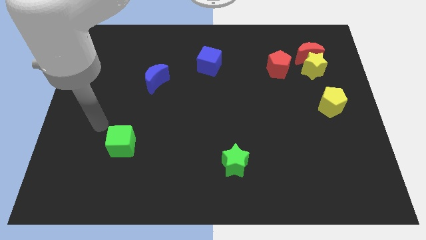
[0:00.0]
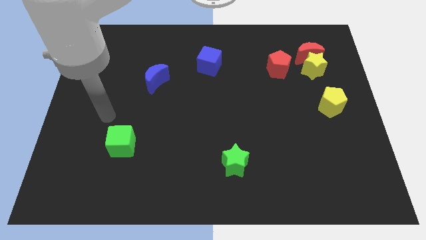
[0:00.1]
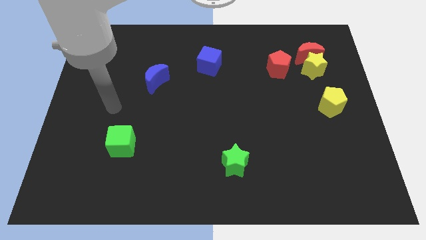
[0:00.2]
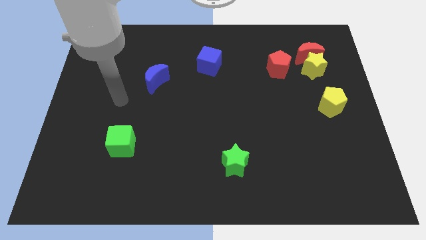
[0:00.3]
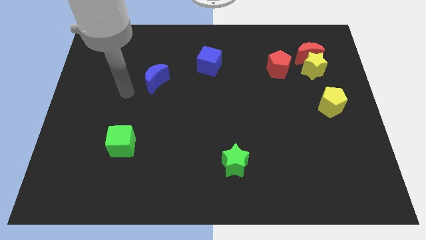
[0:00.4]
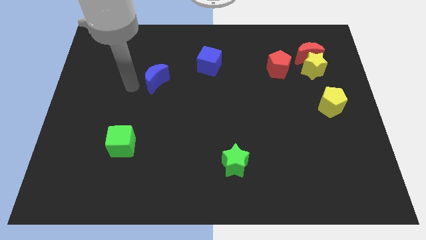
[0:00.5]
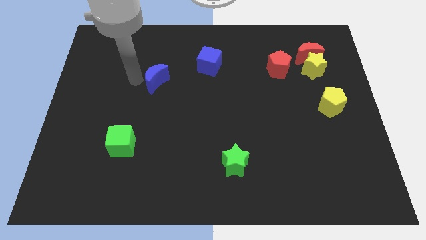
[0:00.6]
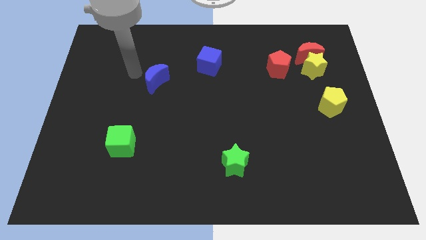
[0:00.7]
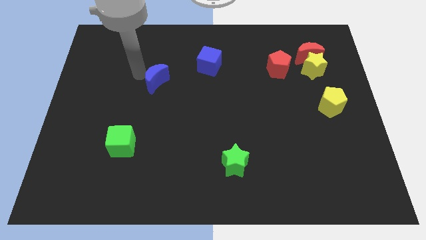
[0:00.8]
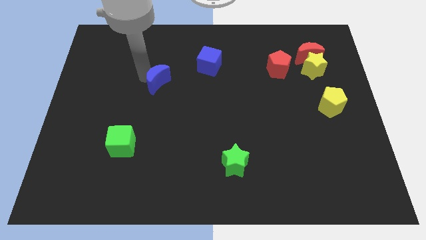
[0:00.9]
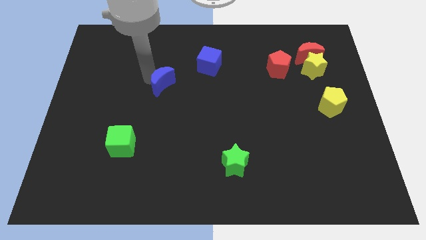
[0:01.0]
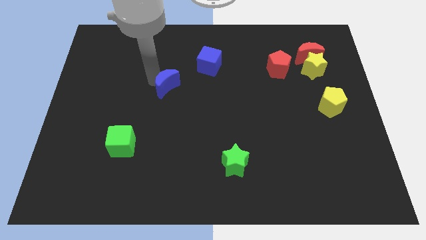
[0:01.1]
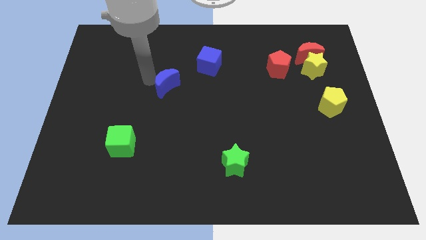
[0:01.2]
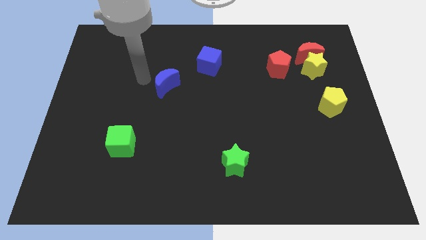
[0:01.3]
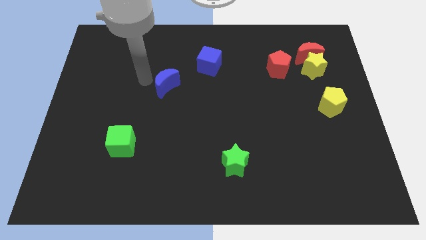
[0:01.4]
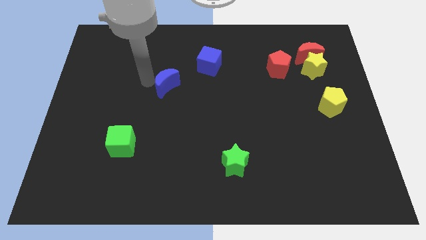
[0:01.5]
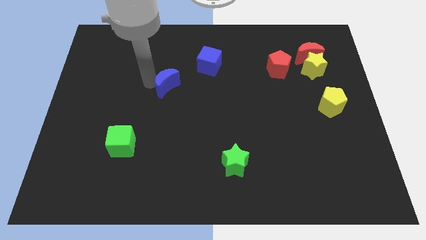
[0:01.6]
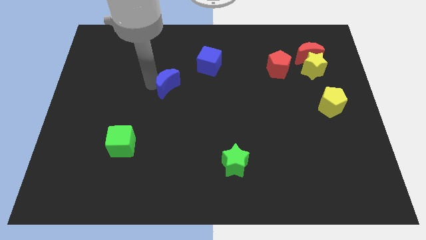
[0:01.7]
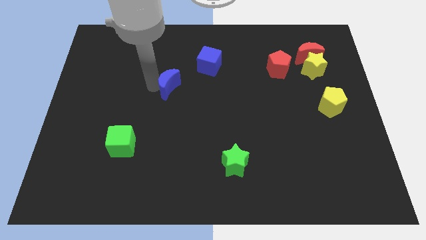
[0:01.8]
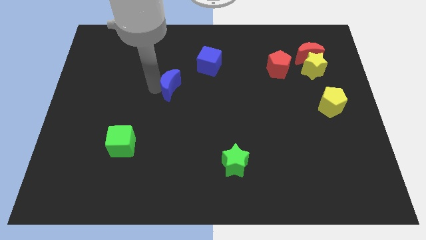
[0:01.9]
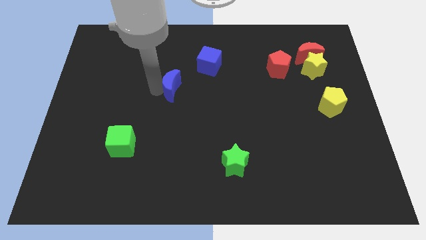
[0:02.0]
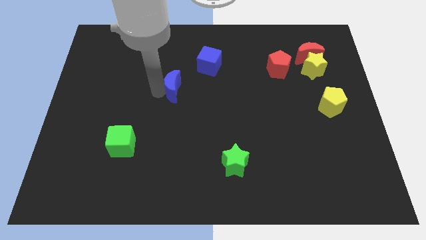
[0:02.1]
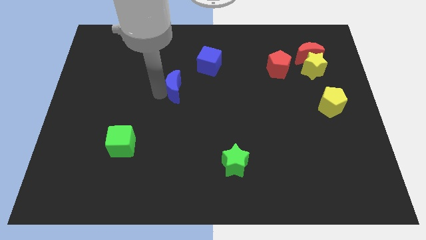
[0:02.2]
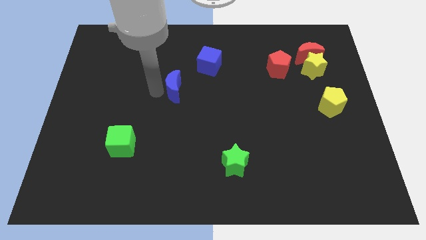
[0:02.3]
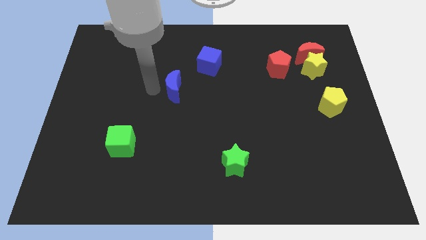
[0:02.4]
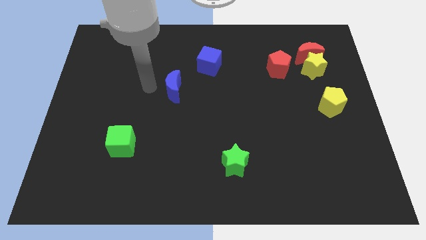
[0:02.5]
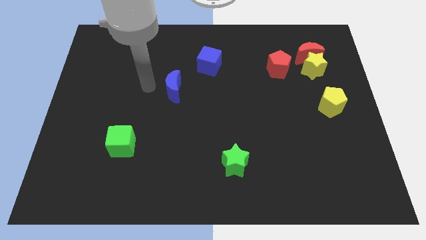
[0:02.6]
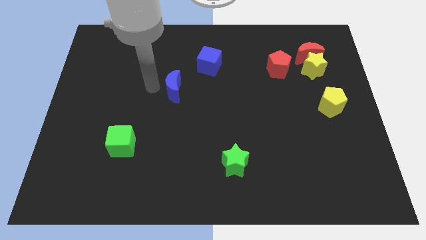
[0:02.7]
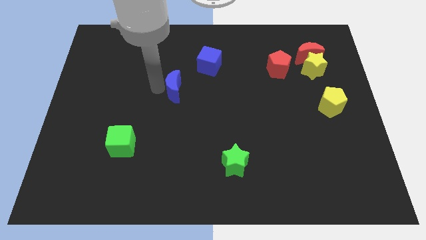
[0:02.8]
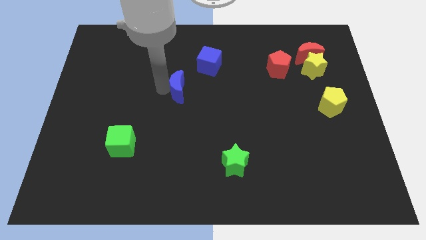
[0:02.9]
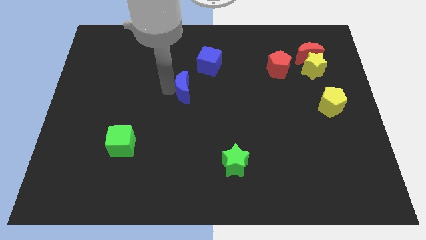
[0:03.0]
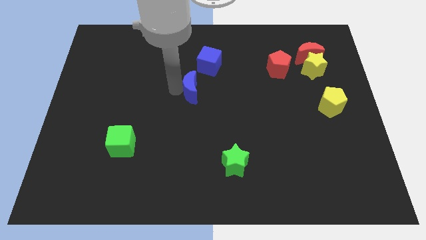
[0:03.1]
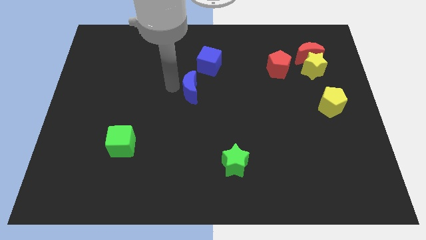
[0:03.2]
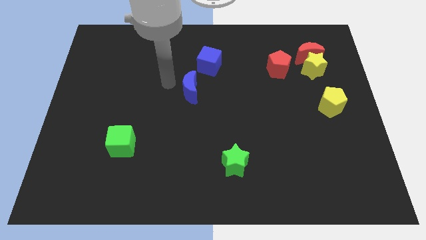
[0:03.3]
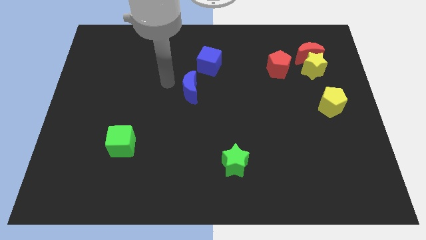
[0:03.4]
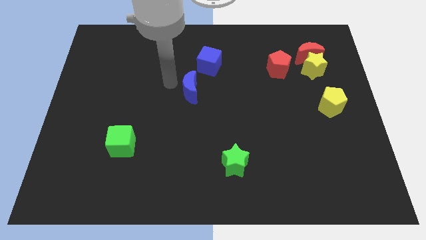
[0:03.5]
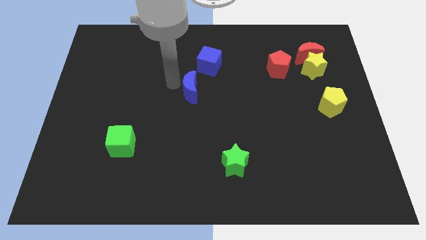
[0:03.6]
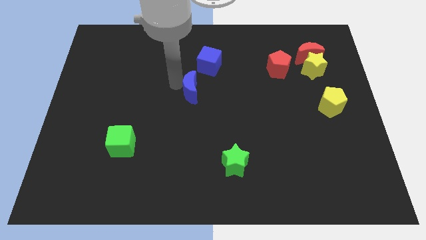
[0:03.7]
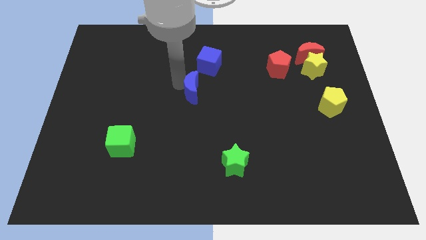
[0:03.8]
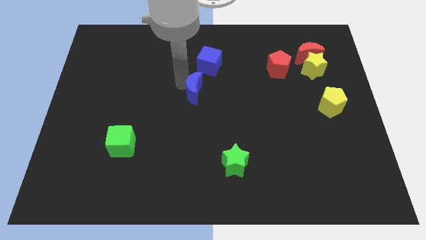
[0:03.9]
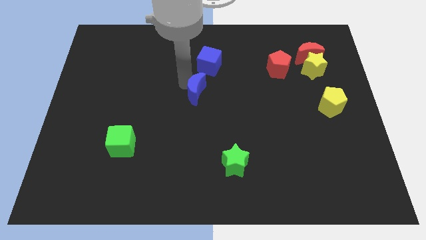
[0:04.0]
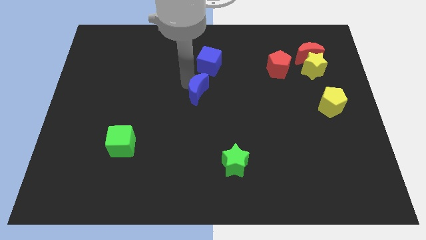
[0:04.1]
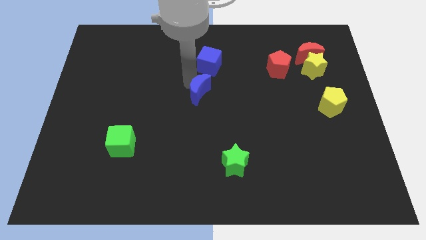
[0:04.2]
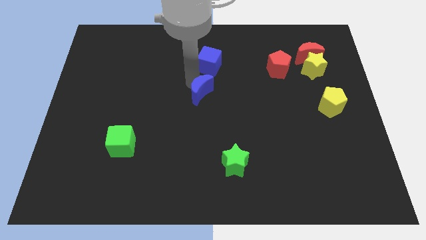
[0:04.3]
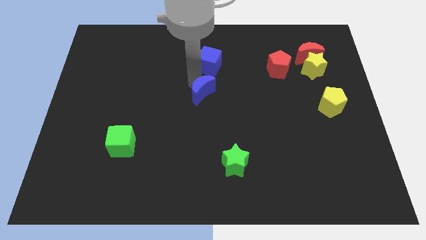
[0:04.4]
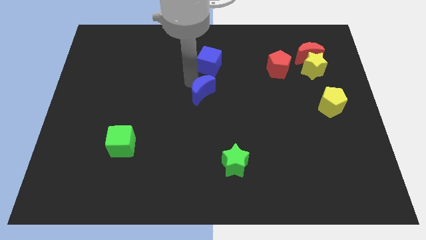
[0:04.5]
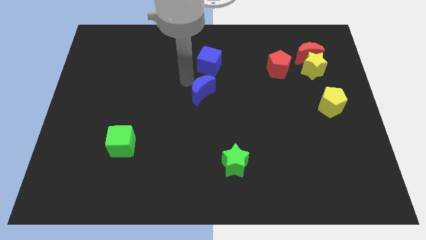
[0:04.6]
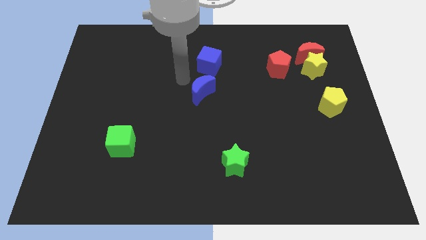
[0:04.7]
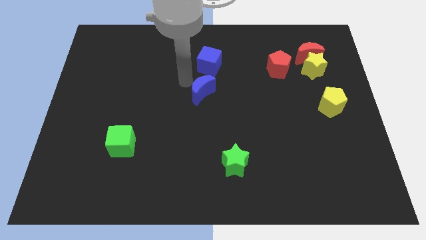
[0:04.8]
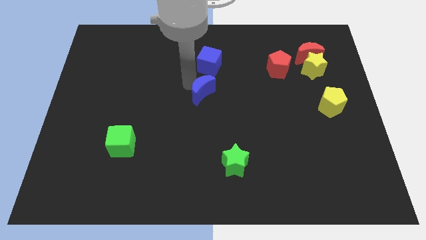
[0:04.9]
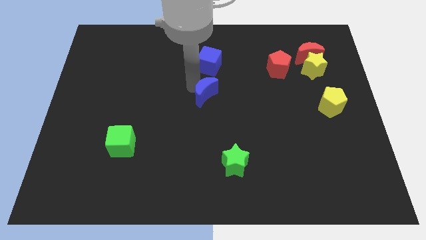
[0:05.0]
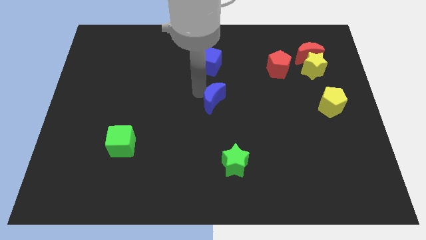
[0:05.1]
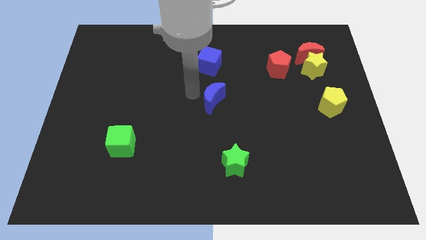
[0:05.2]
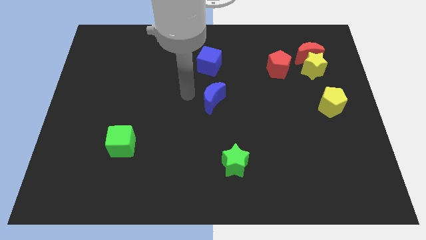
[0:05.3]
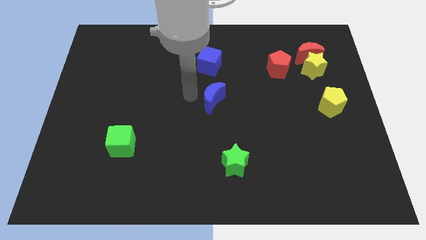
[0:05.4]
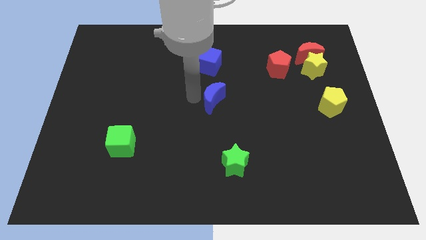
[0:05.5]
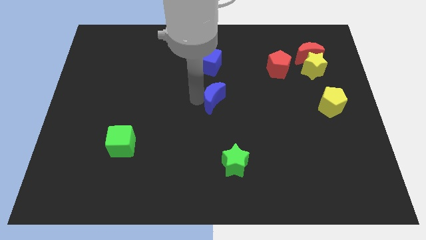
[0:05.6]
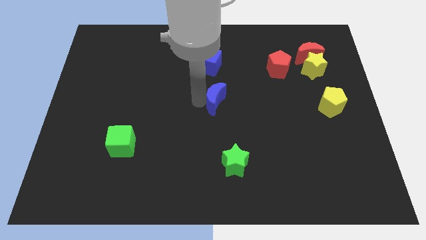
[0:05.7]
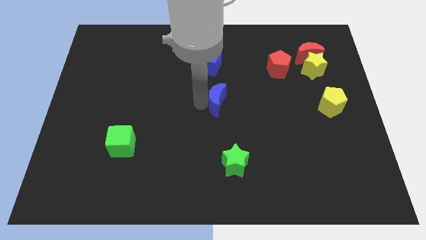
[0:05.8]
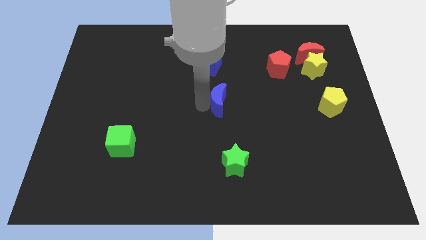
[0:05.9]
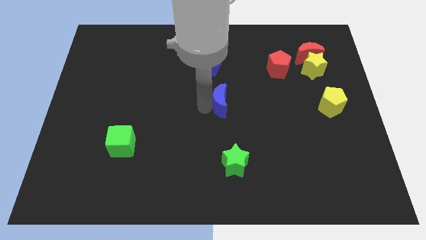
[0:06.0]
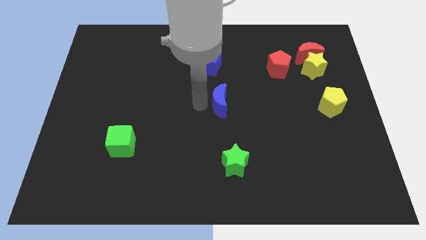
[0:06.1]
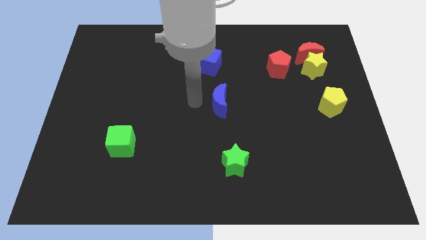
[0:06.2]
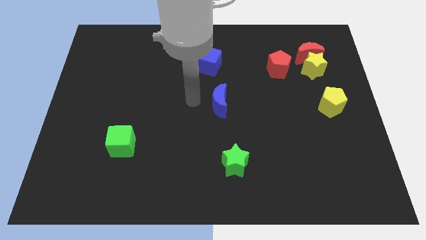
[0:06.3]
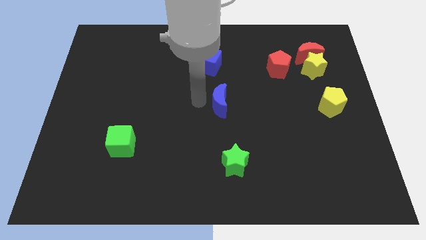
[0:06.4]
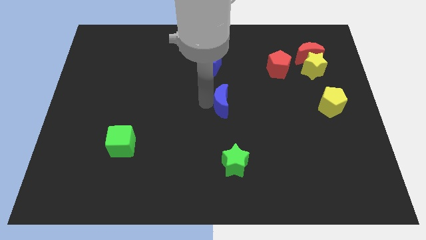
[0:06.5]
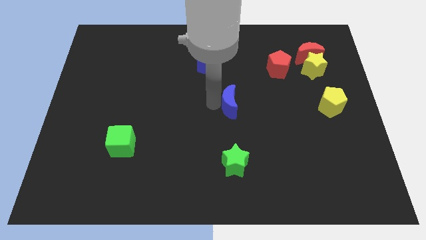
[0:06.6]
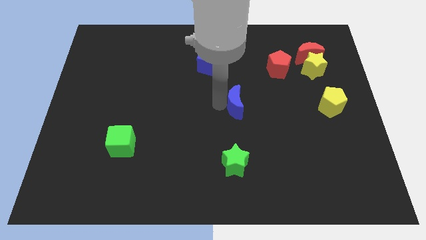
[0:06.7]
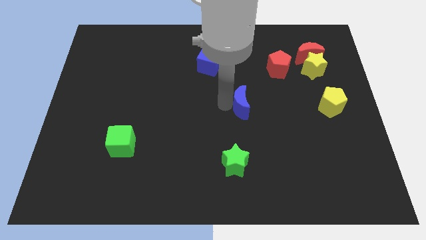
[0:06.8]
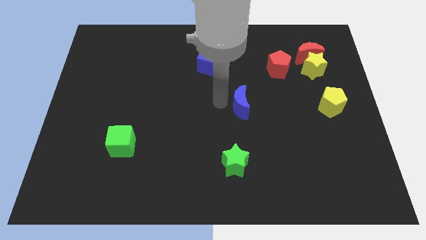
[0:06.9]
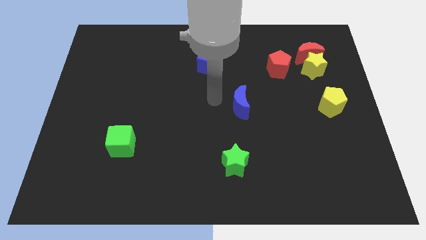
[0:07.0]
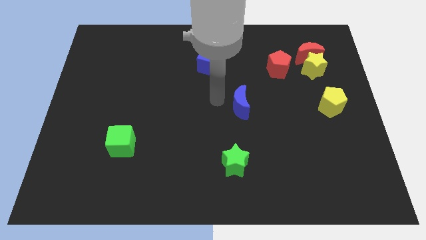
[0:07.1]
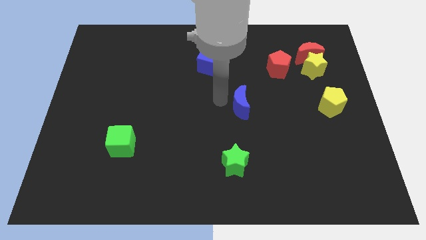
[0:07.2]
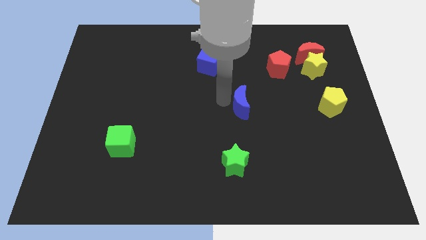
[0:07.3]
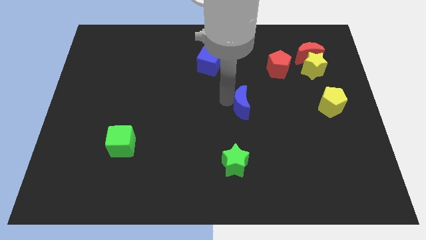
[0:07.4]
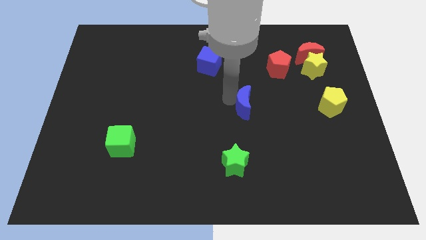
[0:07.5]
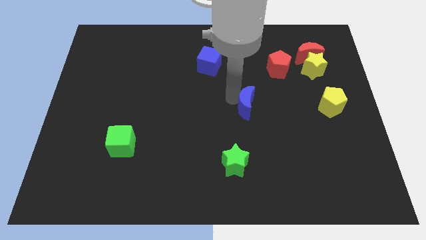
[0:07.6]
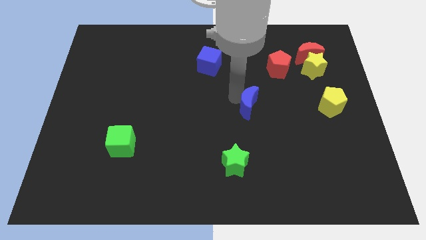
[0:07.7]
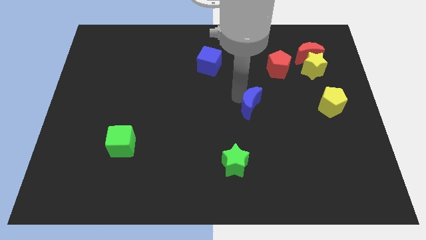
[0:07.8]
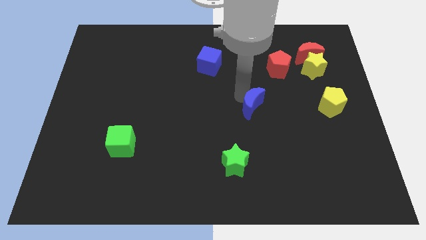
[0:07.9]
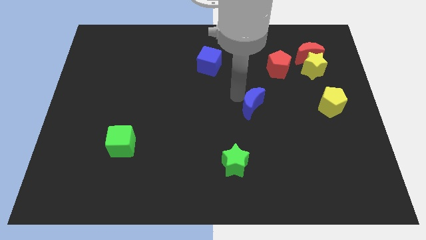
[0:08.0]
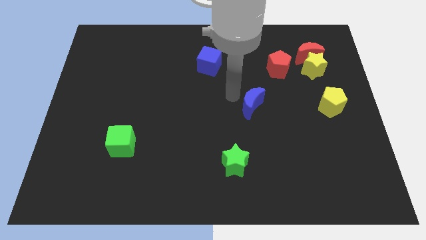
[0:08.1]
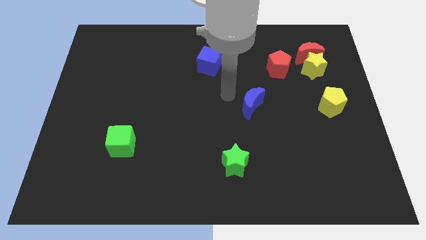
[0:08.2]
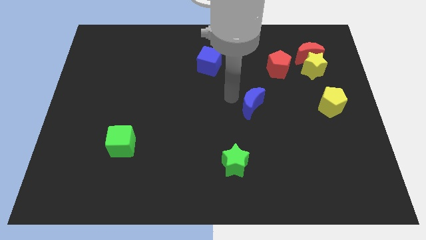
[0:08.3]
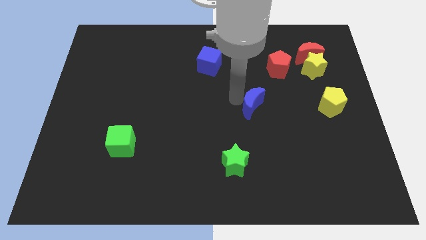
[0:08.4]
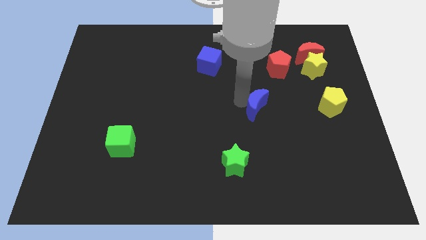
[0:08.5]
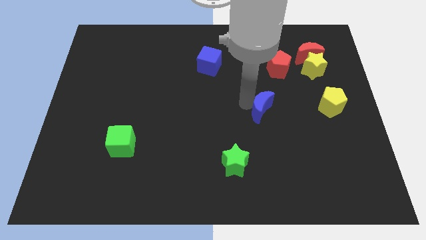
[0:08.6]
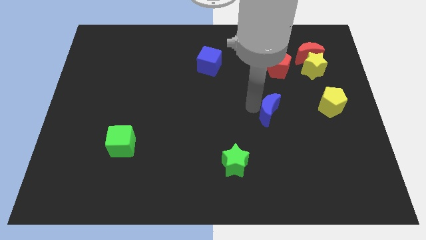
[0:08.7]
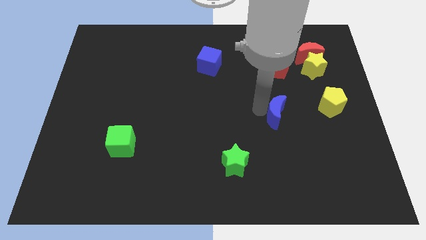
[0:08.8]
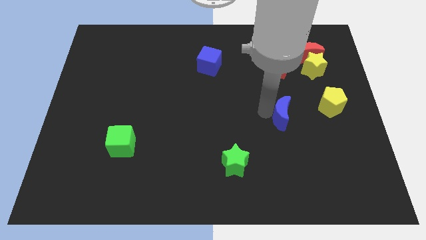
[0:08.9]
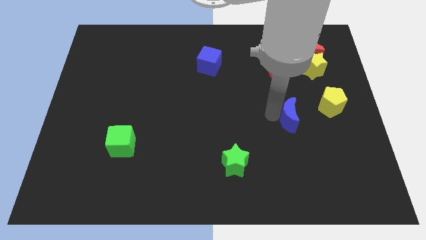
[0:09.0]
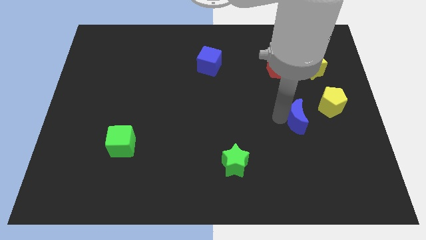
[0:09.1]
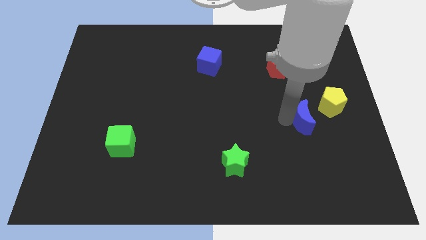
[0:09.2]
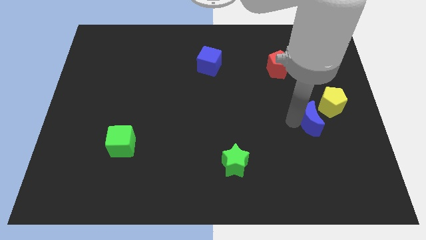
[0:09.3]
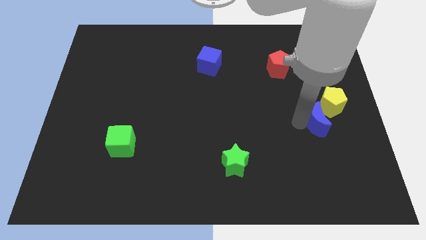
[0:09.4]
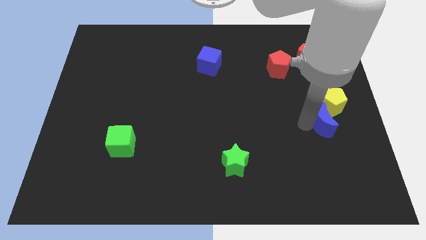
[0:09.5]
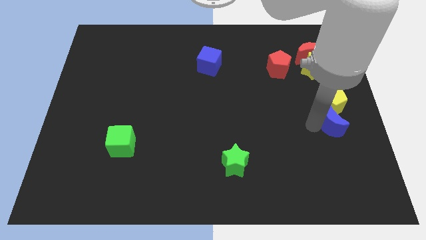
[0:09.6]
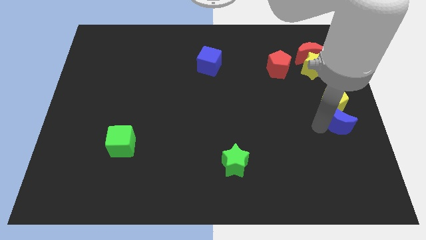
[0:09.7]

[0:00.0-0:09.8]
put the blue moon to the center right
